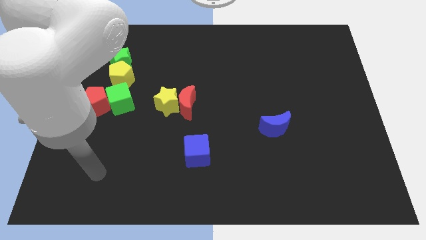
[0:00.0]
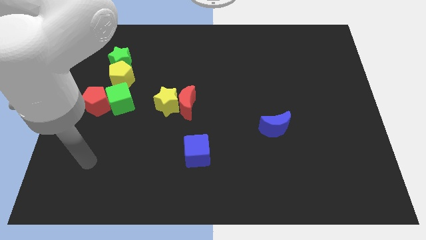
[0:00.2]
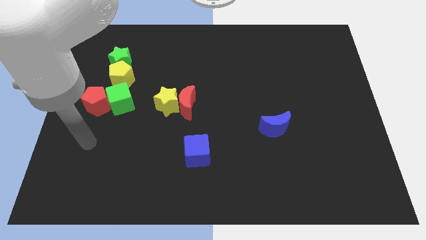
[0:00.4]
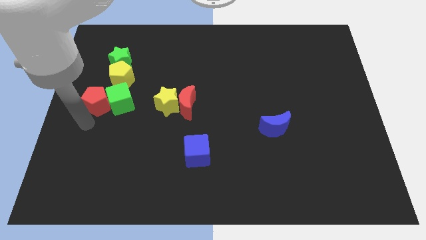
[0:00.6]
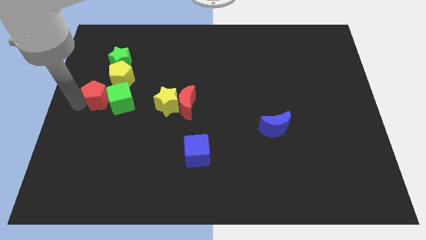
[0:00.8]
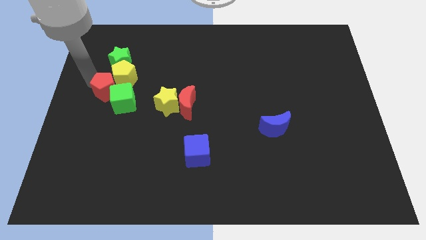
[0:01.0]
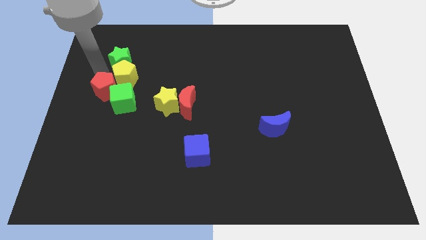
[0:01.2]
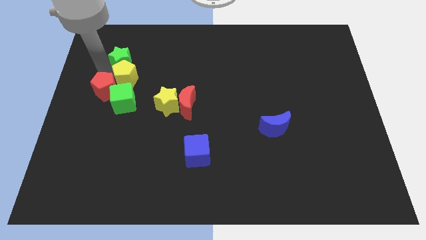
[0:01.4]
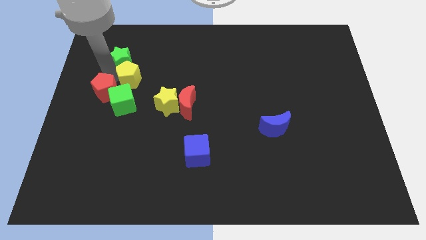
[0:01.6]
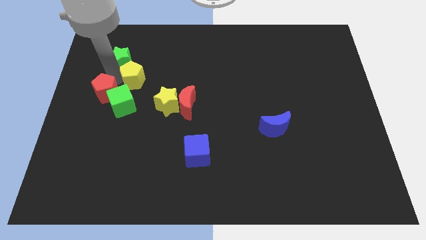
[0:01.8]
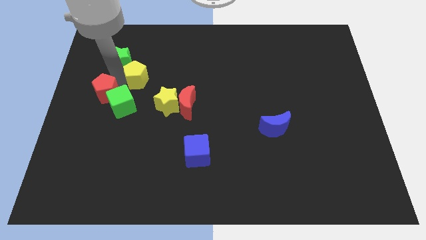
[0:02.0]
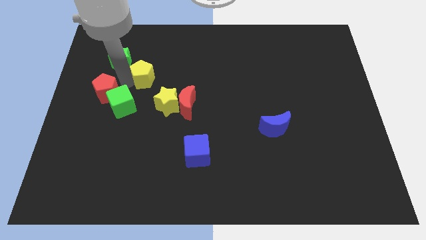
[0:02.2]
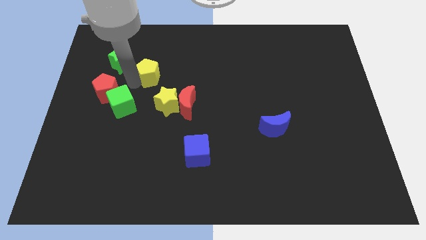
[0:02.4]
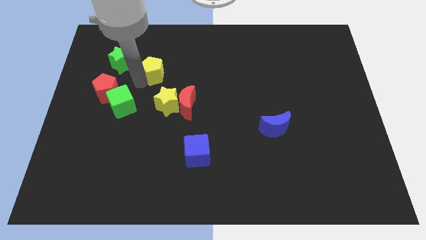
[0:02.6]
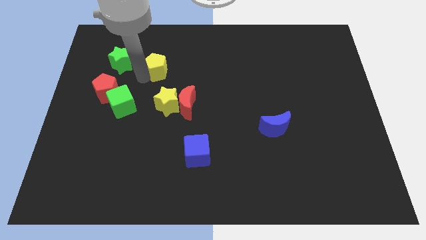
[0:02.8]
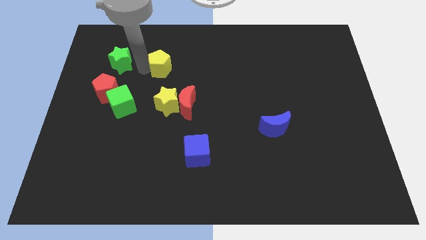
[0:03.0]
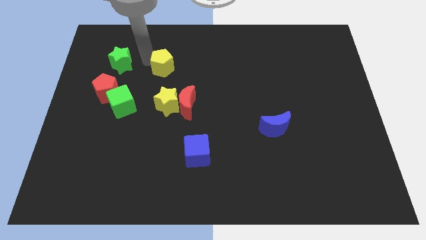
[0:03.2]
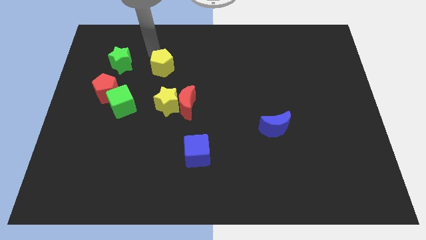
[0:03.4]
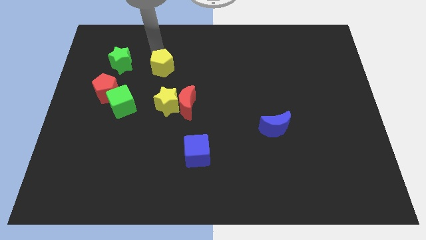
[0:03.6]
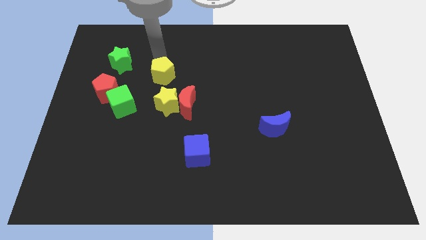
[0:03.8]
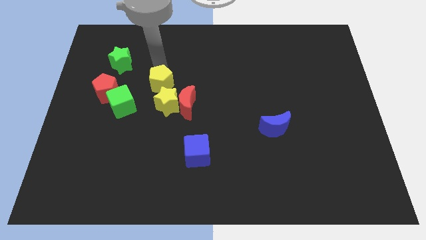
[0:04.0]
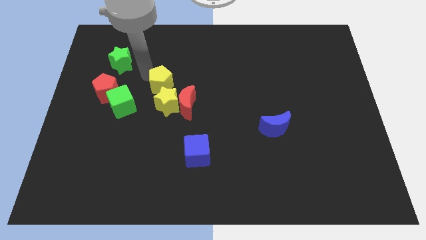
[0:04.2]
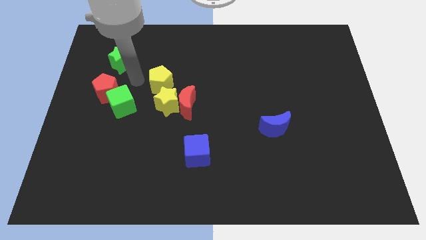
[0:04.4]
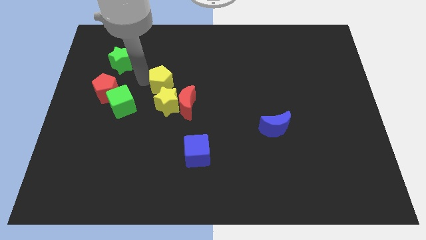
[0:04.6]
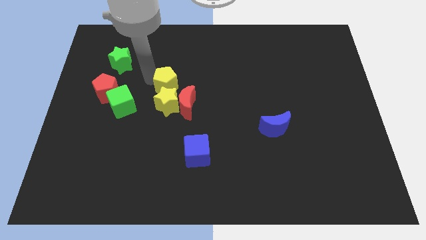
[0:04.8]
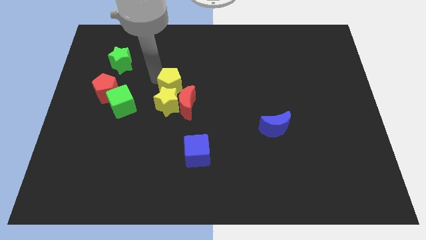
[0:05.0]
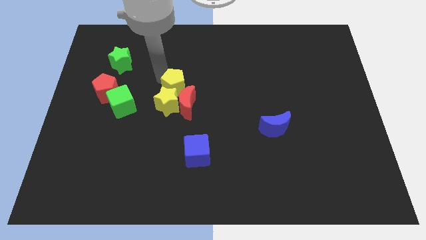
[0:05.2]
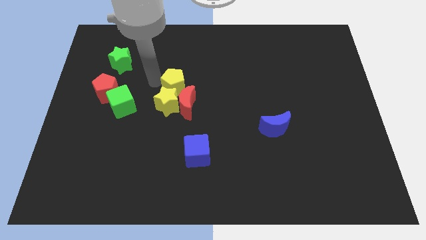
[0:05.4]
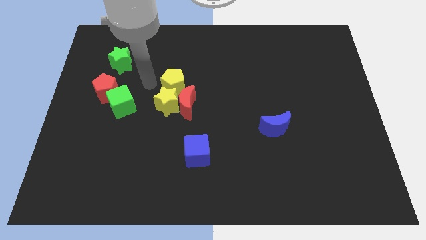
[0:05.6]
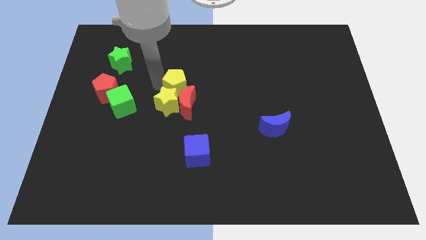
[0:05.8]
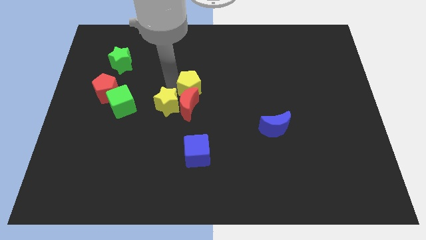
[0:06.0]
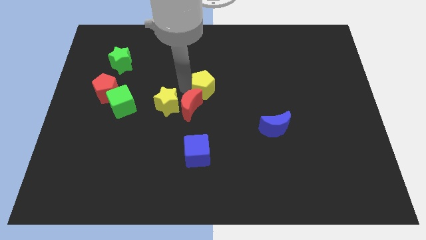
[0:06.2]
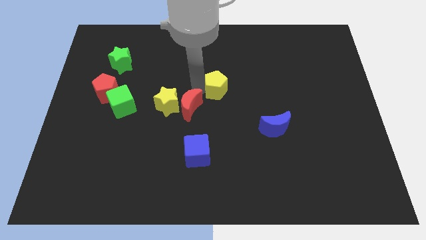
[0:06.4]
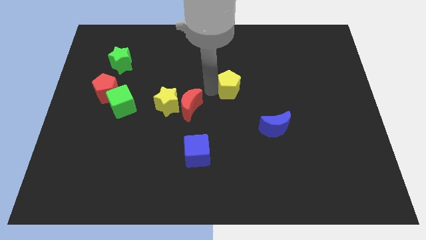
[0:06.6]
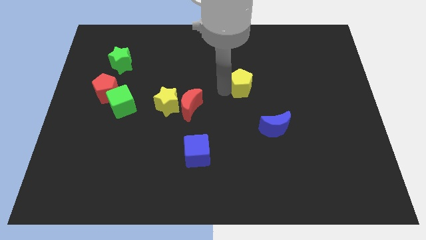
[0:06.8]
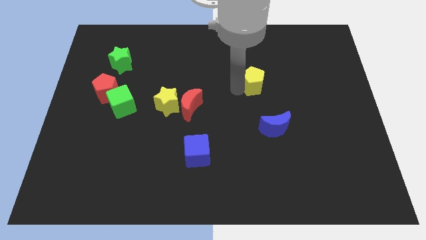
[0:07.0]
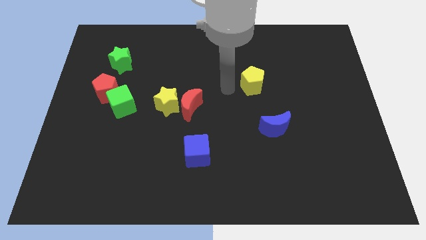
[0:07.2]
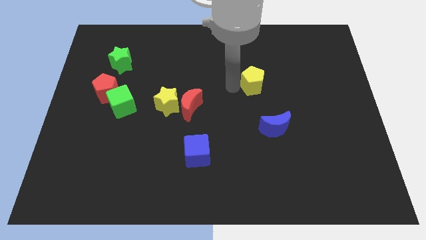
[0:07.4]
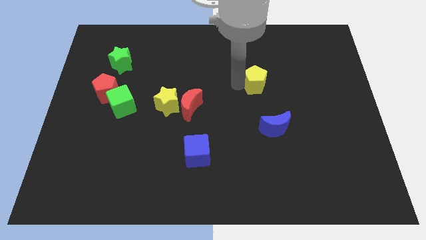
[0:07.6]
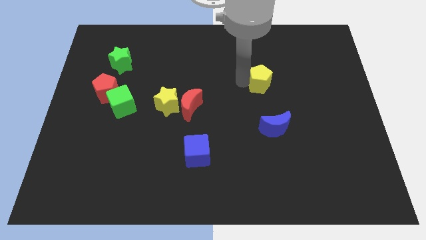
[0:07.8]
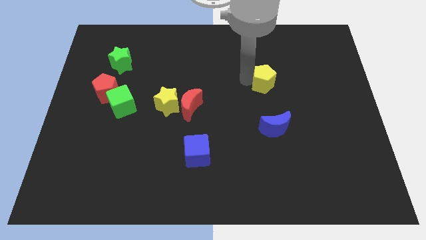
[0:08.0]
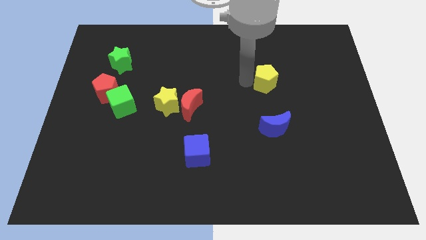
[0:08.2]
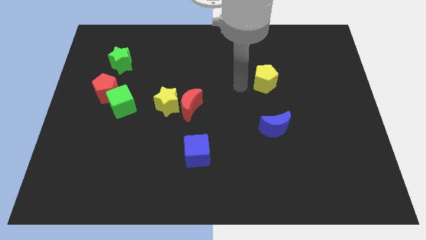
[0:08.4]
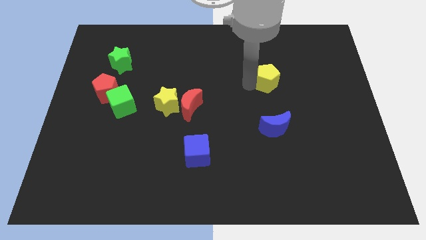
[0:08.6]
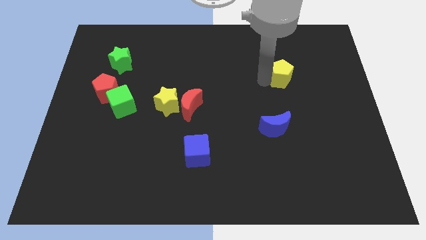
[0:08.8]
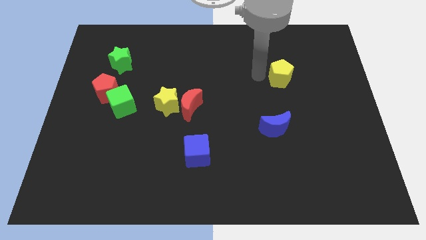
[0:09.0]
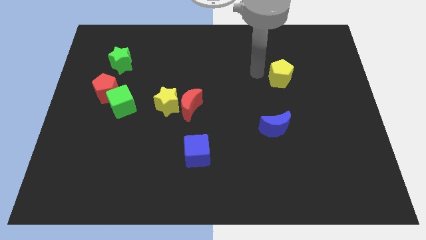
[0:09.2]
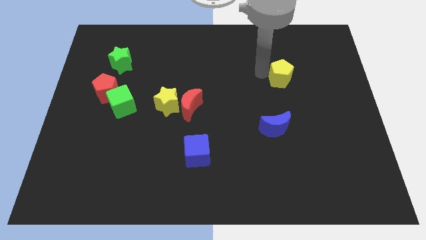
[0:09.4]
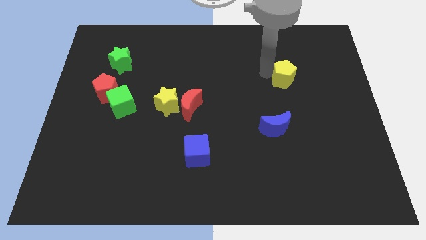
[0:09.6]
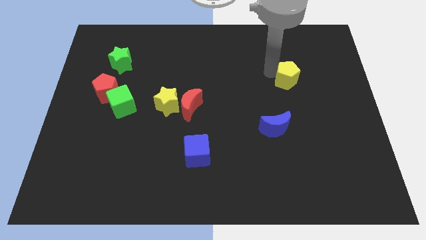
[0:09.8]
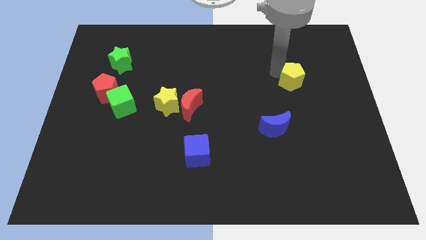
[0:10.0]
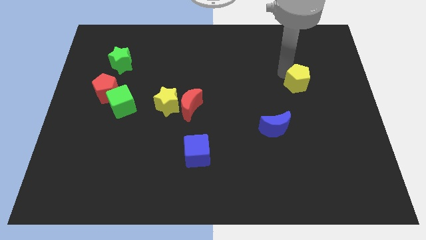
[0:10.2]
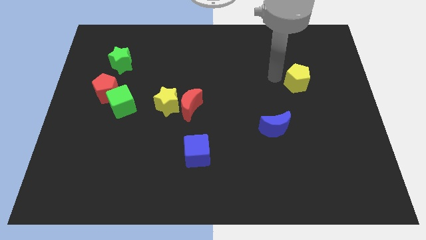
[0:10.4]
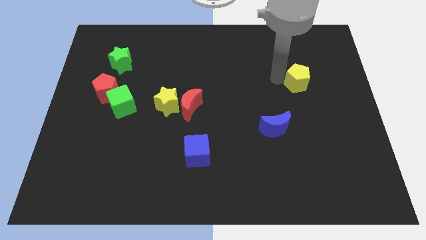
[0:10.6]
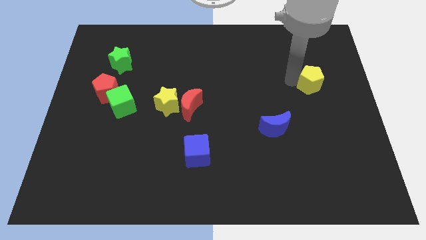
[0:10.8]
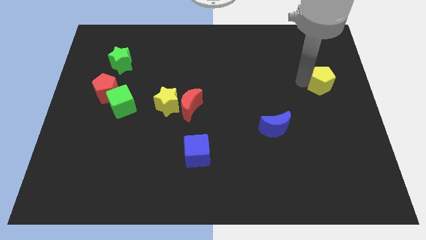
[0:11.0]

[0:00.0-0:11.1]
move the yellow pentagon to the right side of the board
